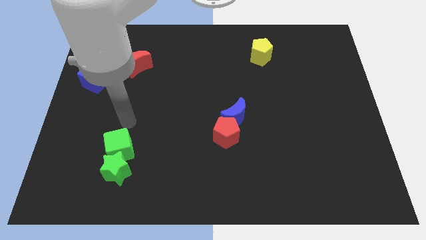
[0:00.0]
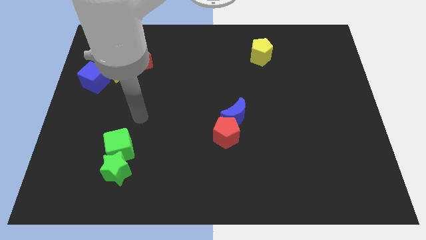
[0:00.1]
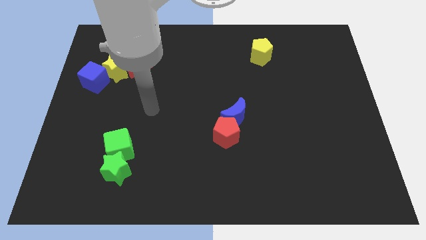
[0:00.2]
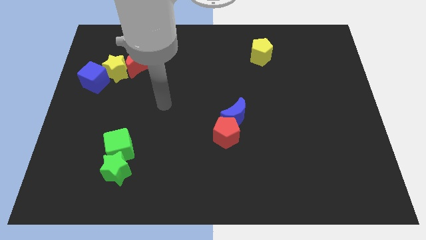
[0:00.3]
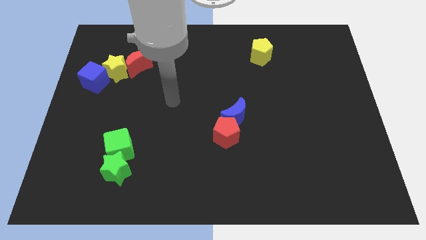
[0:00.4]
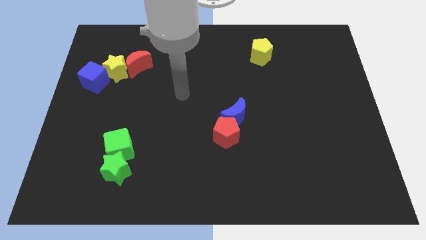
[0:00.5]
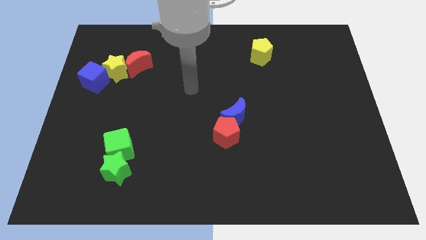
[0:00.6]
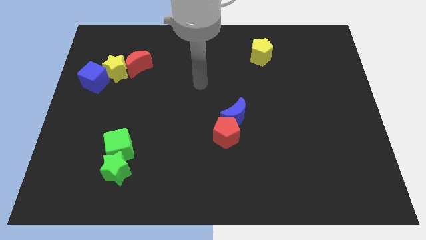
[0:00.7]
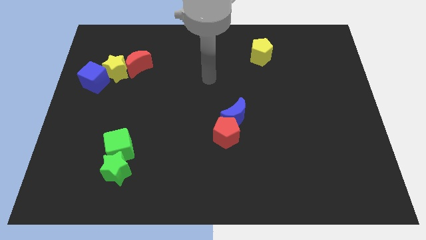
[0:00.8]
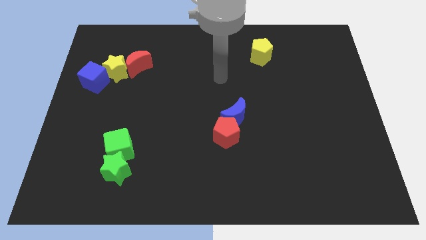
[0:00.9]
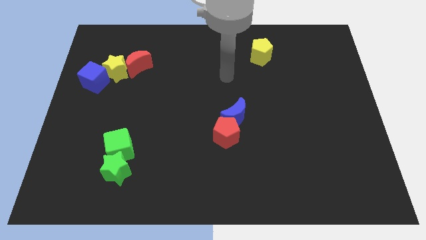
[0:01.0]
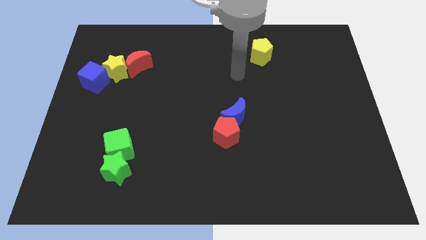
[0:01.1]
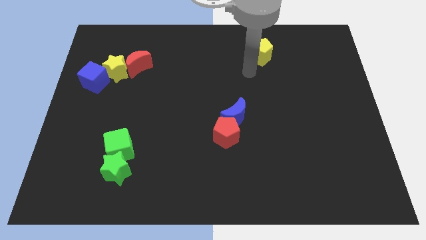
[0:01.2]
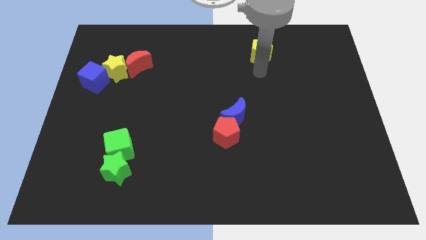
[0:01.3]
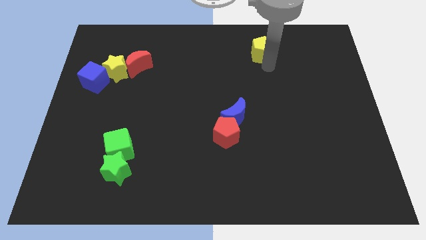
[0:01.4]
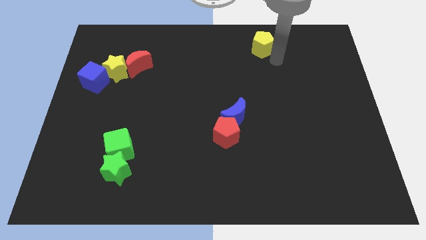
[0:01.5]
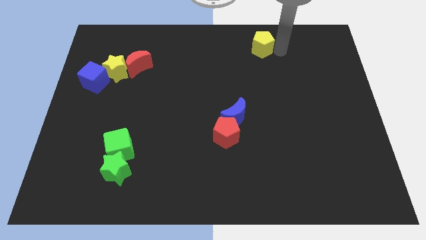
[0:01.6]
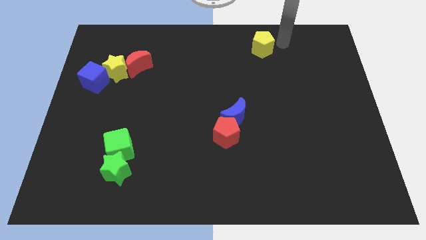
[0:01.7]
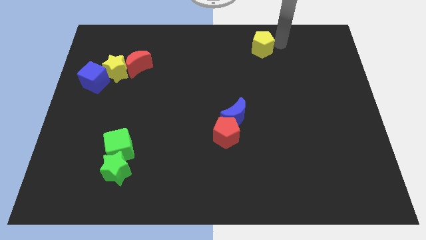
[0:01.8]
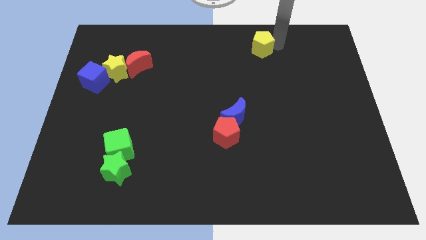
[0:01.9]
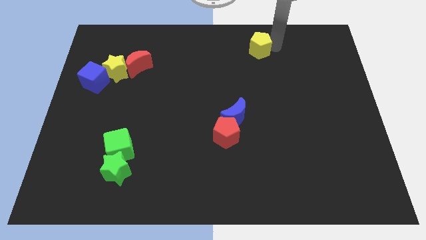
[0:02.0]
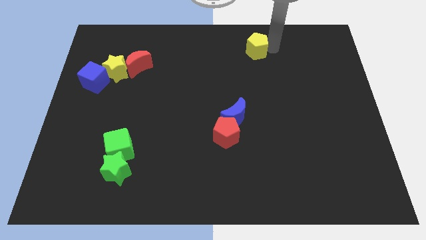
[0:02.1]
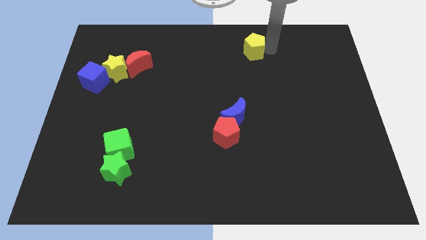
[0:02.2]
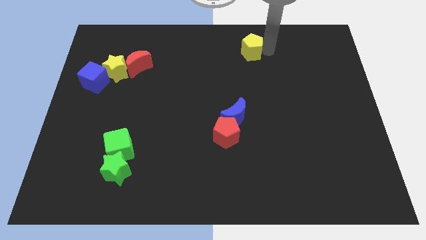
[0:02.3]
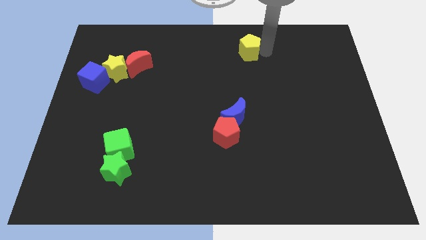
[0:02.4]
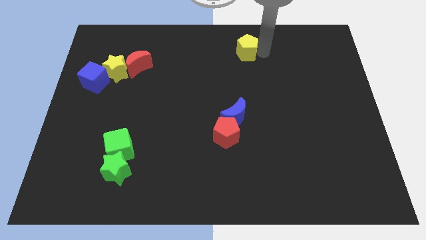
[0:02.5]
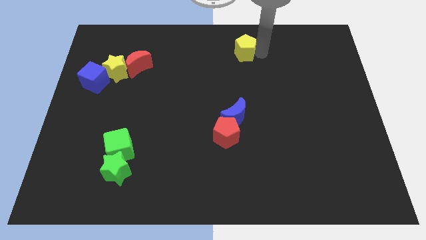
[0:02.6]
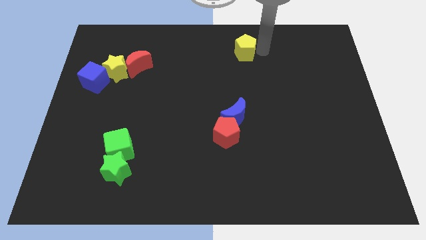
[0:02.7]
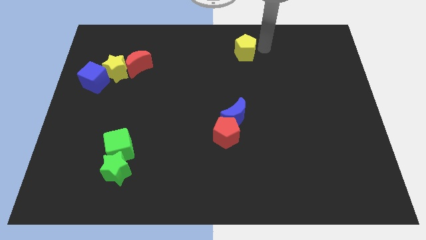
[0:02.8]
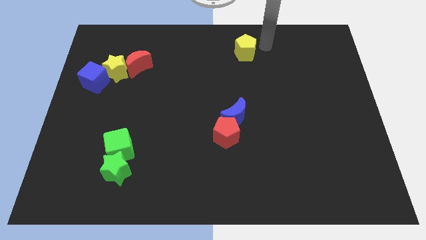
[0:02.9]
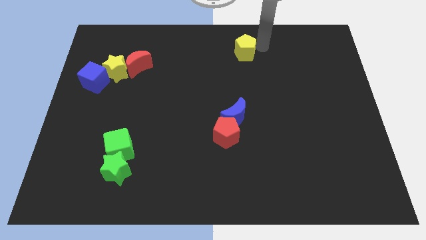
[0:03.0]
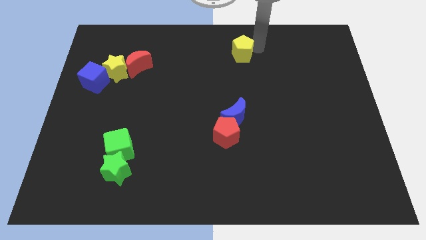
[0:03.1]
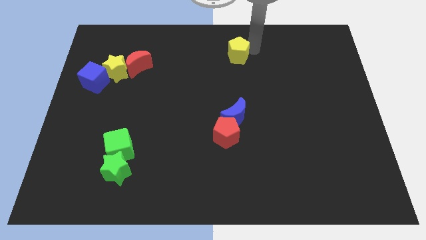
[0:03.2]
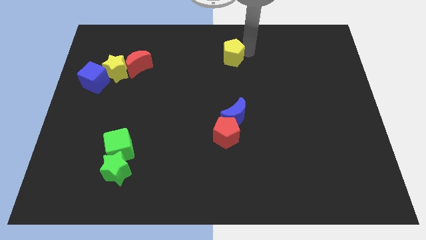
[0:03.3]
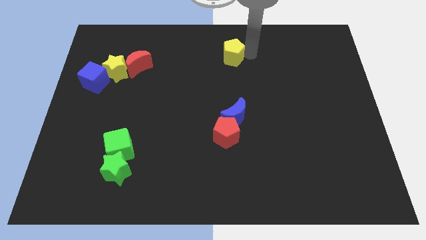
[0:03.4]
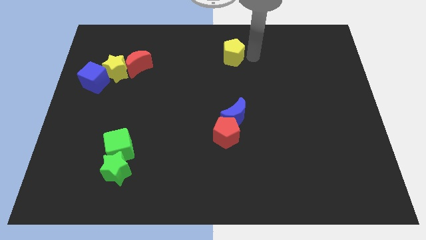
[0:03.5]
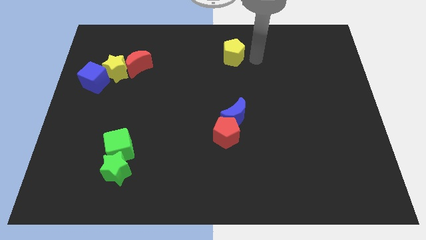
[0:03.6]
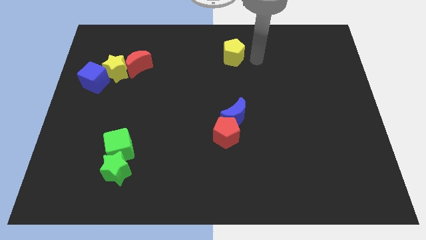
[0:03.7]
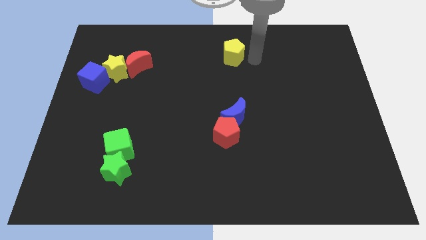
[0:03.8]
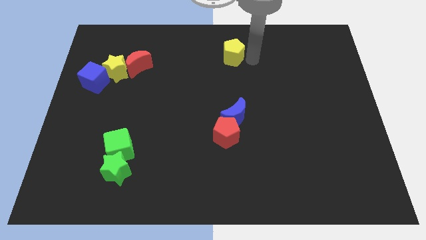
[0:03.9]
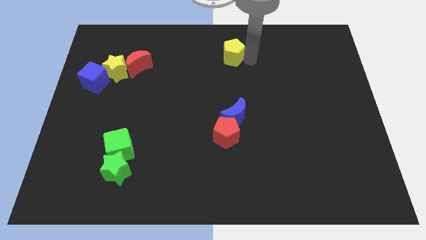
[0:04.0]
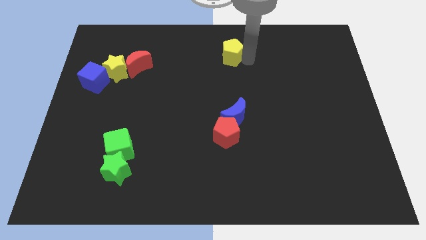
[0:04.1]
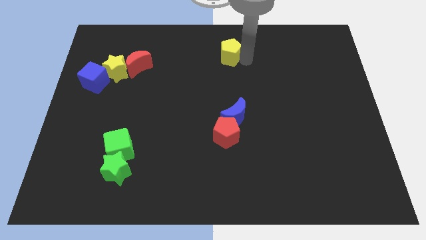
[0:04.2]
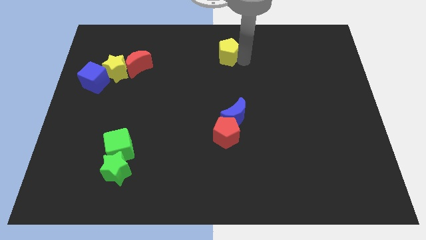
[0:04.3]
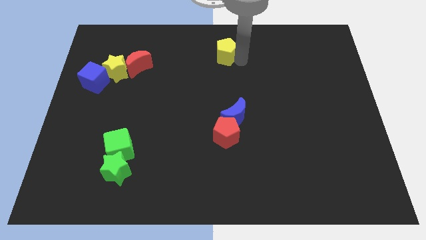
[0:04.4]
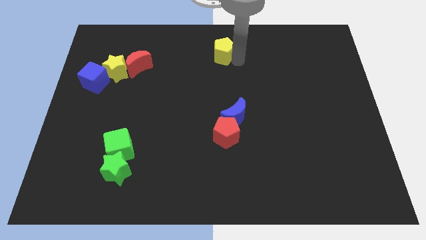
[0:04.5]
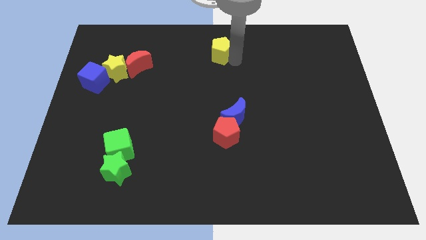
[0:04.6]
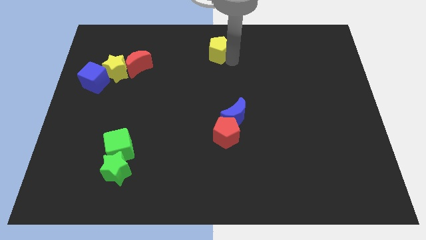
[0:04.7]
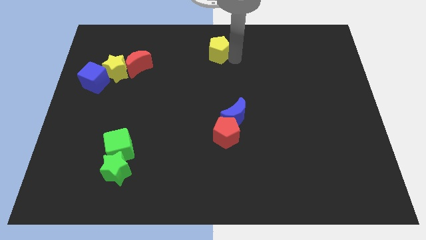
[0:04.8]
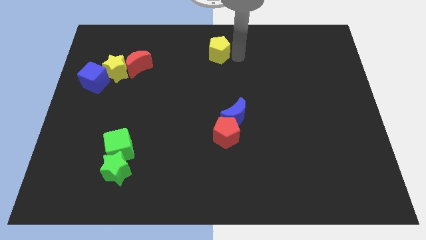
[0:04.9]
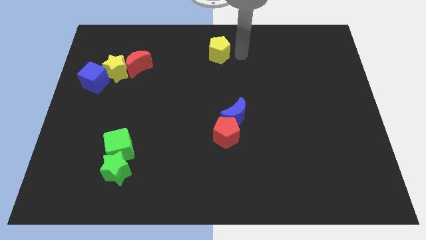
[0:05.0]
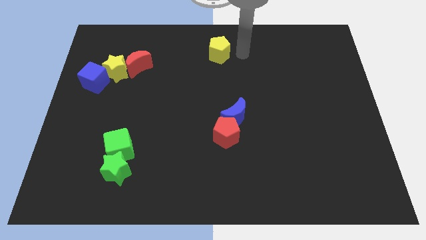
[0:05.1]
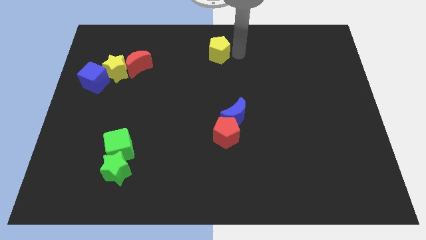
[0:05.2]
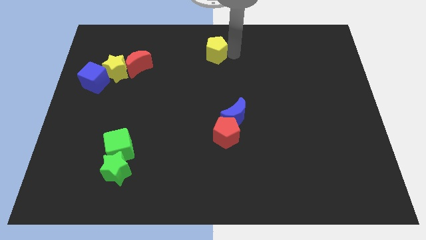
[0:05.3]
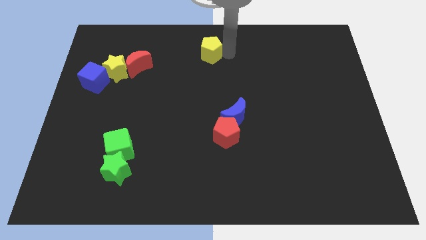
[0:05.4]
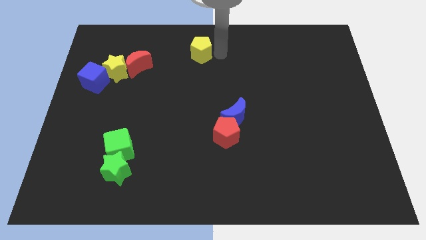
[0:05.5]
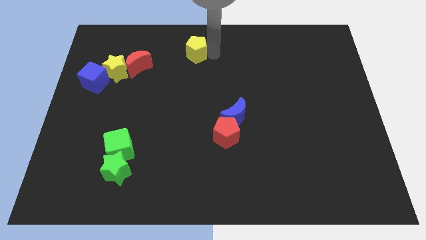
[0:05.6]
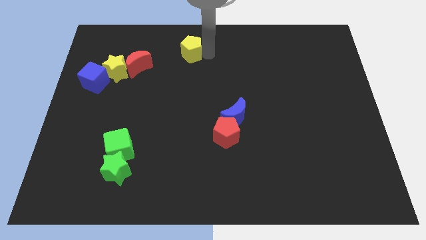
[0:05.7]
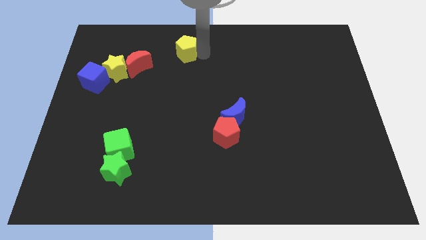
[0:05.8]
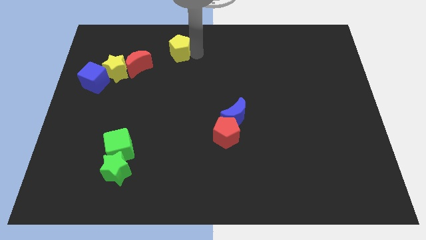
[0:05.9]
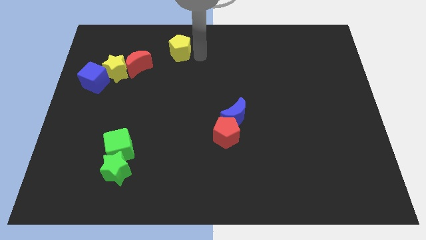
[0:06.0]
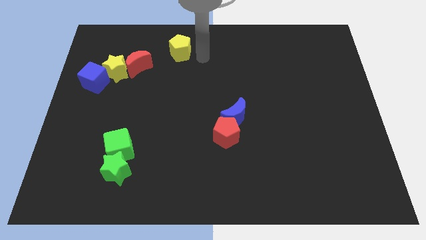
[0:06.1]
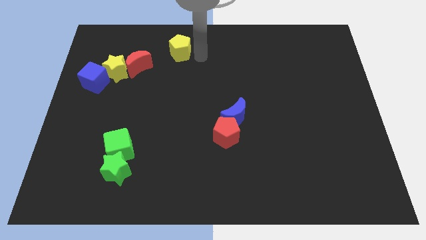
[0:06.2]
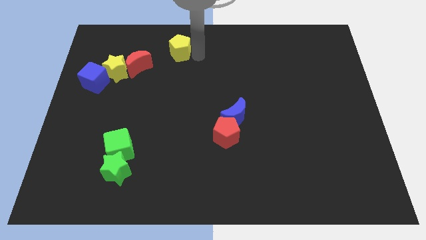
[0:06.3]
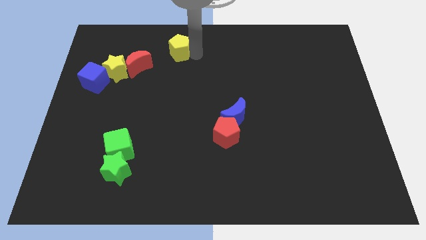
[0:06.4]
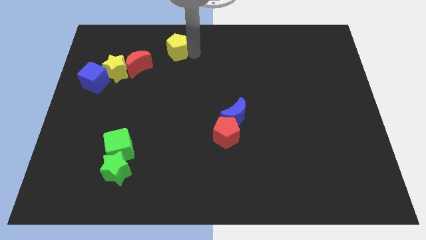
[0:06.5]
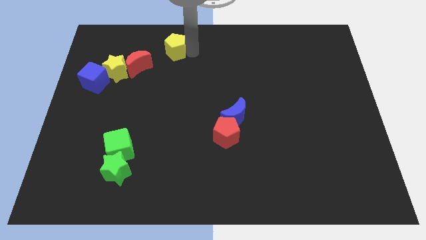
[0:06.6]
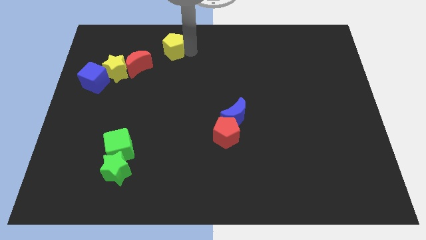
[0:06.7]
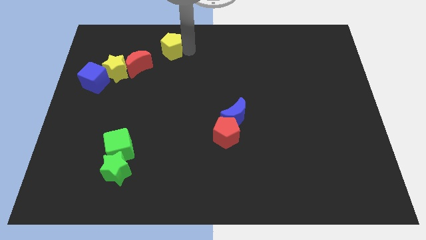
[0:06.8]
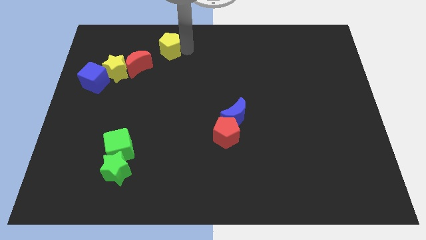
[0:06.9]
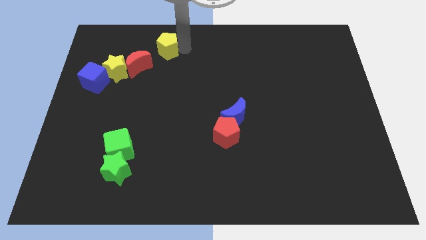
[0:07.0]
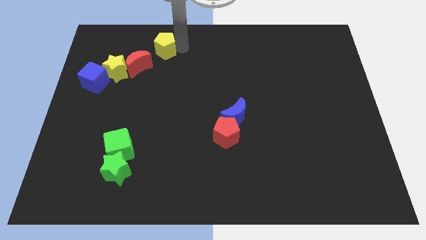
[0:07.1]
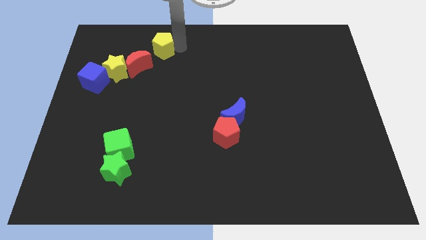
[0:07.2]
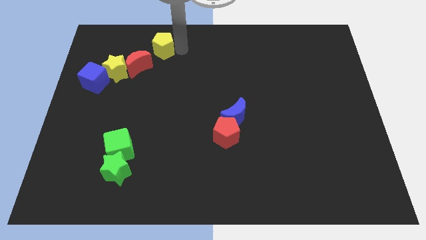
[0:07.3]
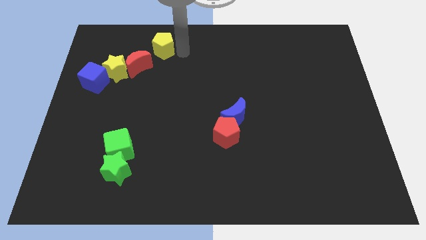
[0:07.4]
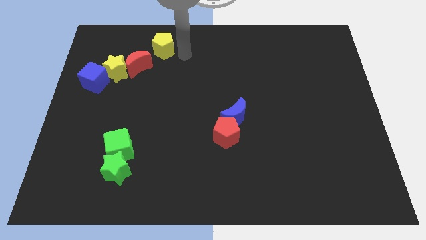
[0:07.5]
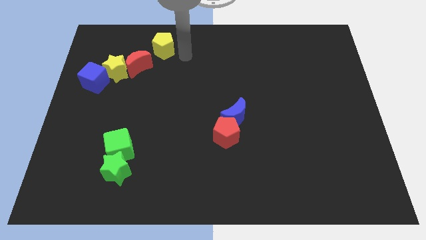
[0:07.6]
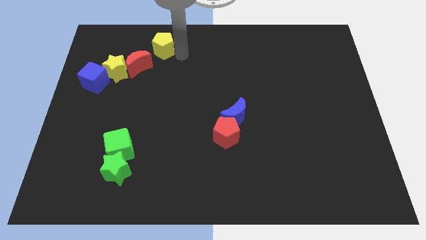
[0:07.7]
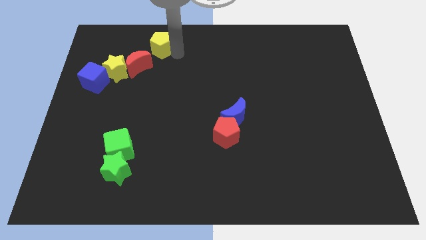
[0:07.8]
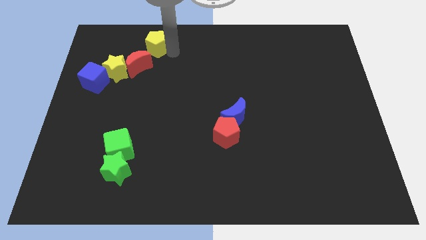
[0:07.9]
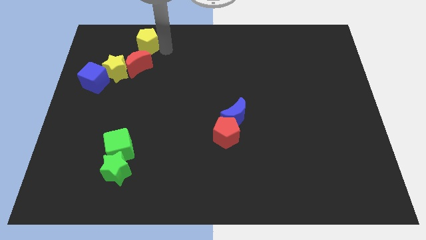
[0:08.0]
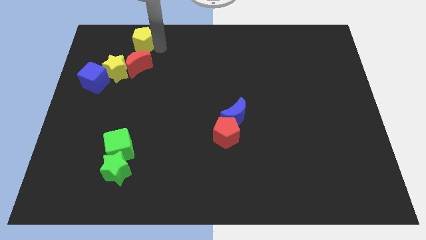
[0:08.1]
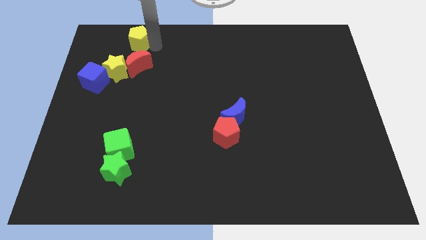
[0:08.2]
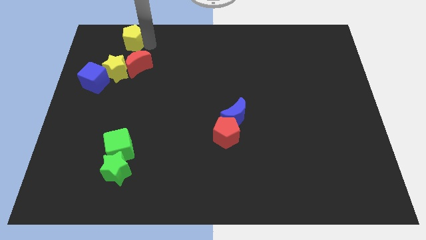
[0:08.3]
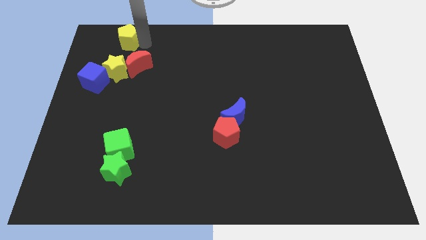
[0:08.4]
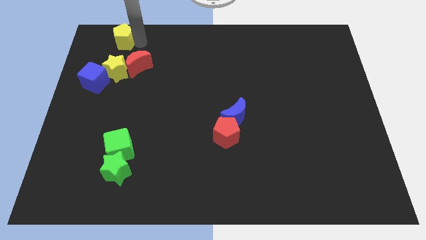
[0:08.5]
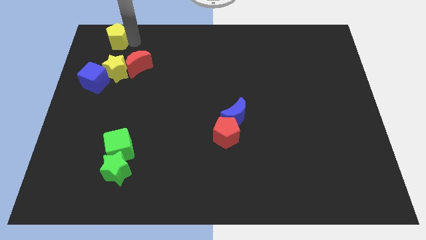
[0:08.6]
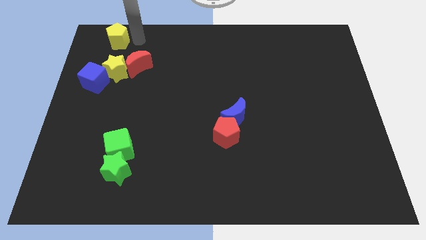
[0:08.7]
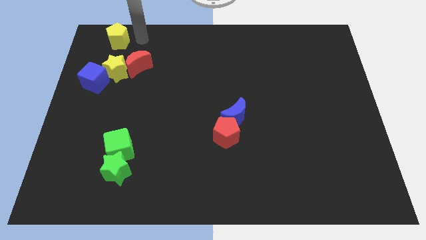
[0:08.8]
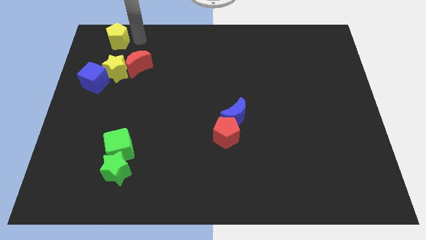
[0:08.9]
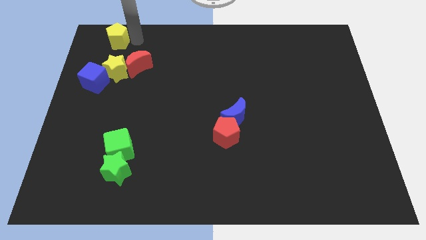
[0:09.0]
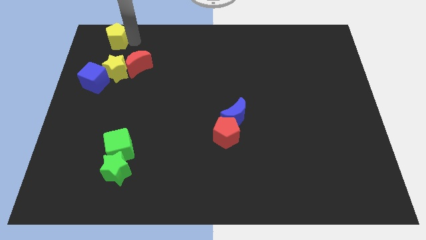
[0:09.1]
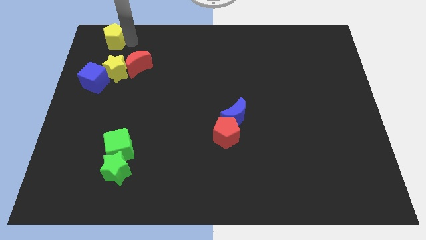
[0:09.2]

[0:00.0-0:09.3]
move the yellow pentagon to the top left
